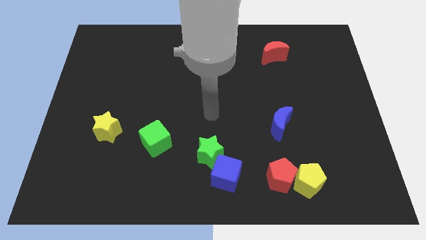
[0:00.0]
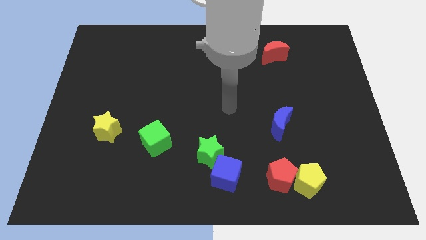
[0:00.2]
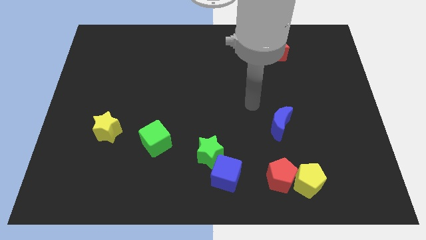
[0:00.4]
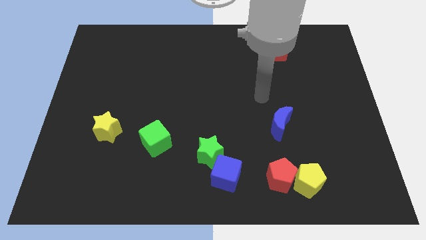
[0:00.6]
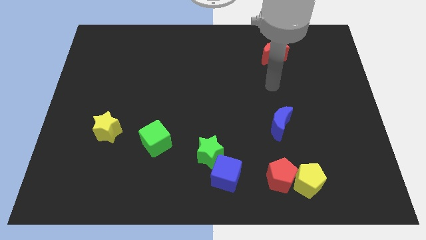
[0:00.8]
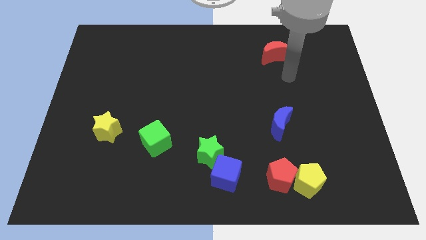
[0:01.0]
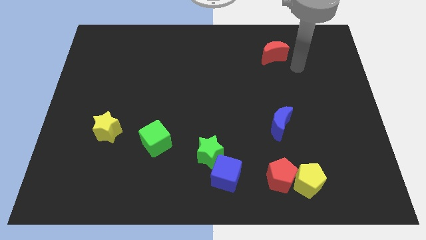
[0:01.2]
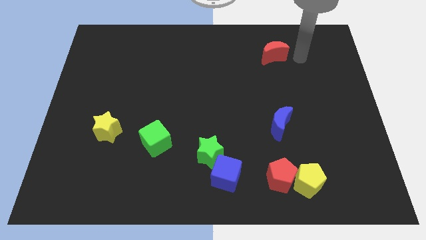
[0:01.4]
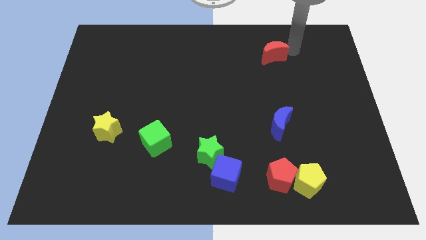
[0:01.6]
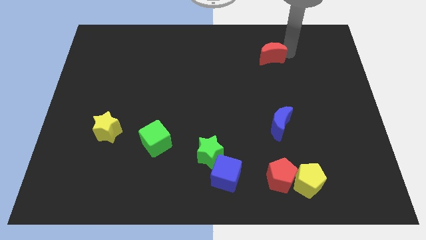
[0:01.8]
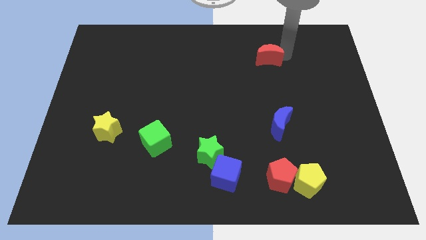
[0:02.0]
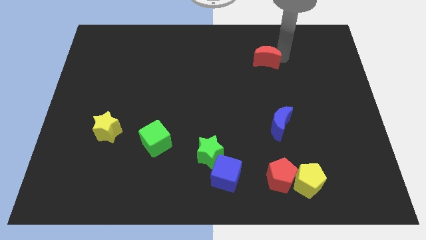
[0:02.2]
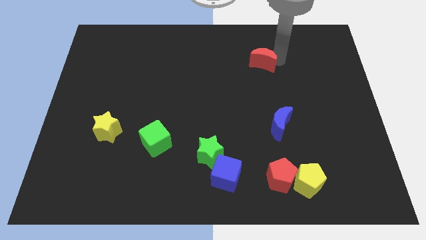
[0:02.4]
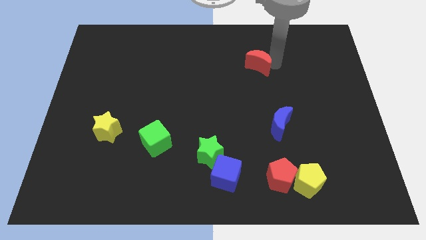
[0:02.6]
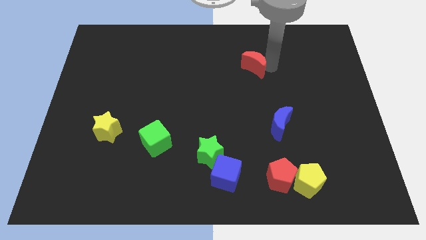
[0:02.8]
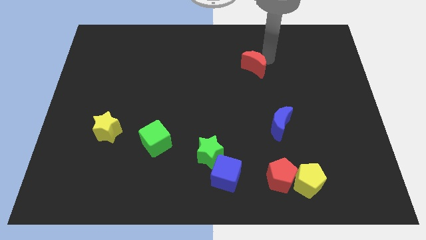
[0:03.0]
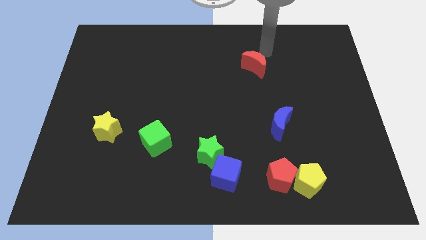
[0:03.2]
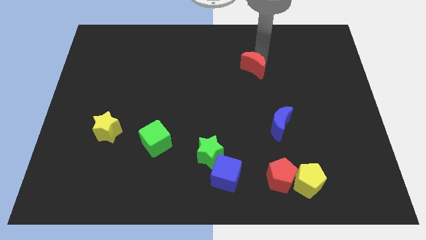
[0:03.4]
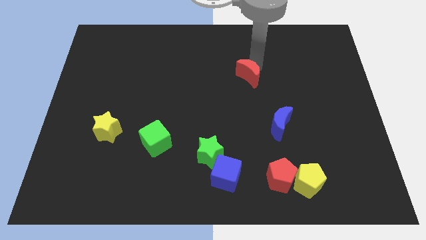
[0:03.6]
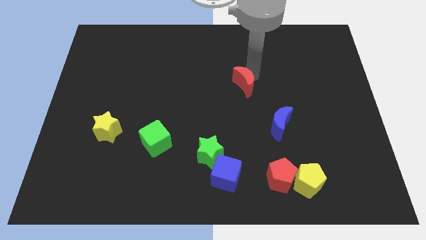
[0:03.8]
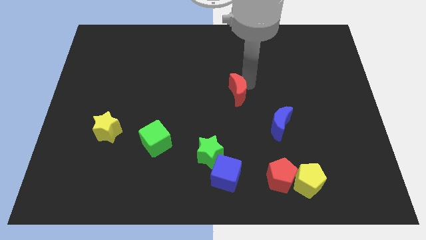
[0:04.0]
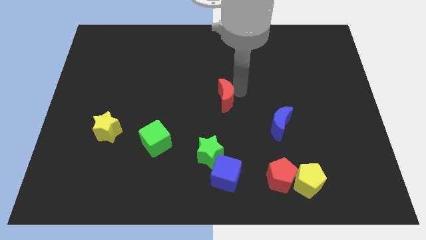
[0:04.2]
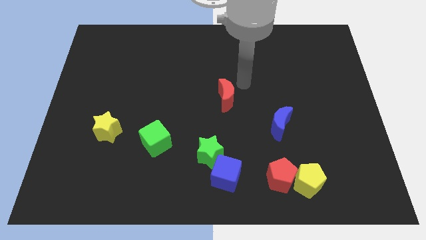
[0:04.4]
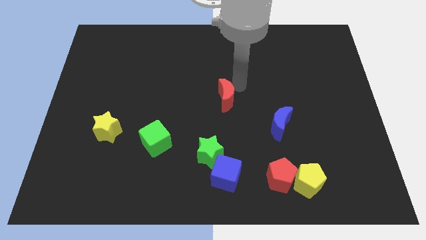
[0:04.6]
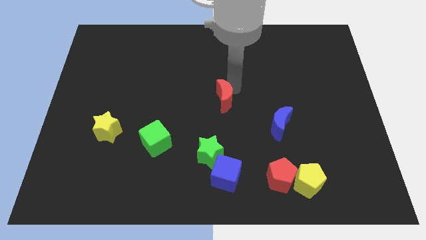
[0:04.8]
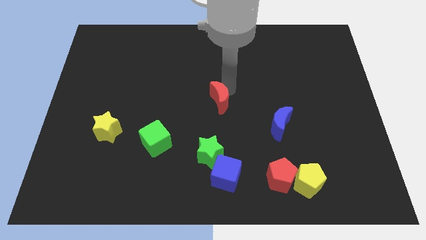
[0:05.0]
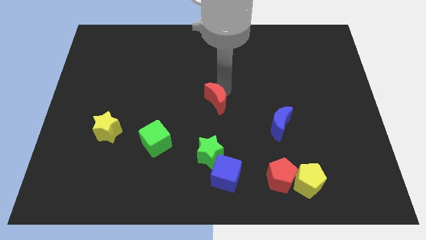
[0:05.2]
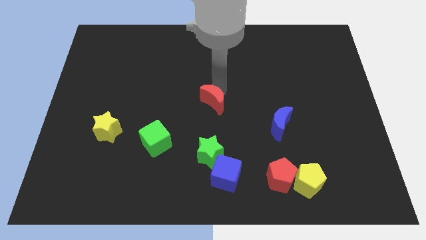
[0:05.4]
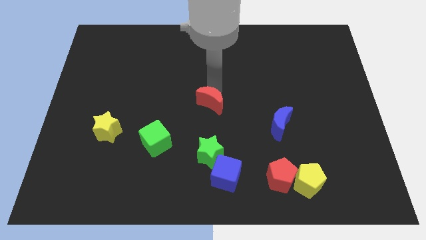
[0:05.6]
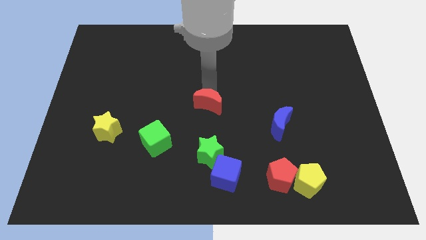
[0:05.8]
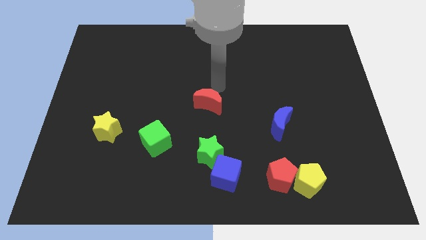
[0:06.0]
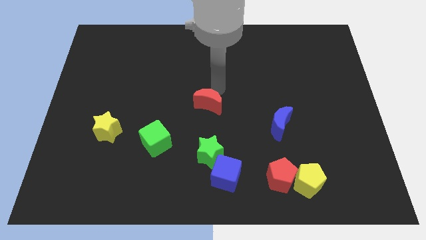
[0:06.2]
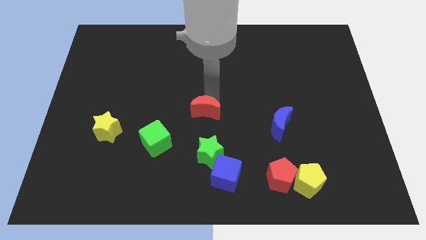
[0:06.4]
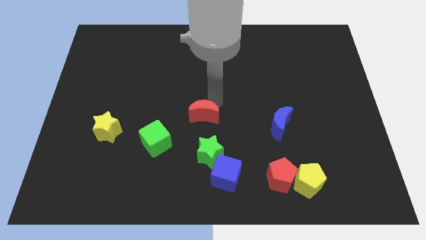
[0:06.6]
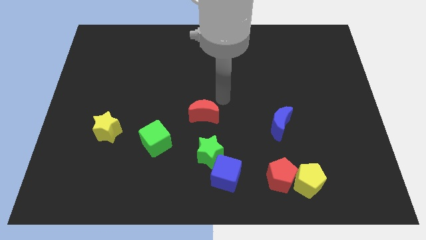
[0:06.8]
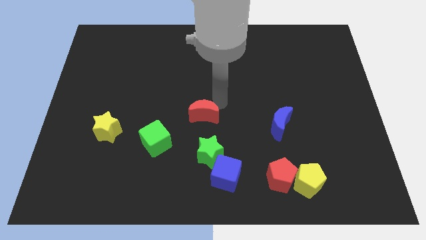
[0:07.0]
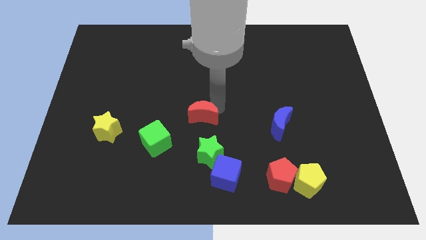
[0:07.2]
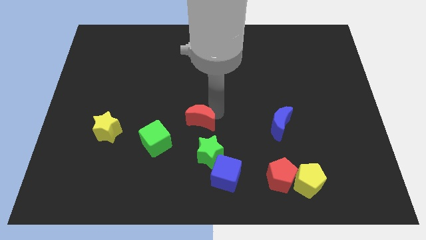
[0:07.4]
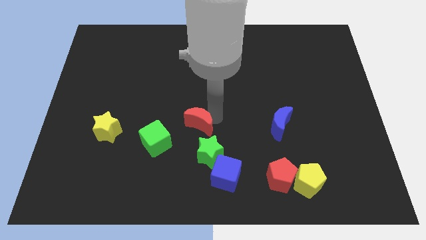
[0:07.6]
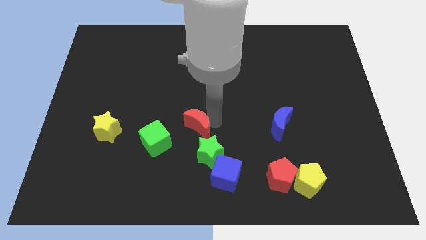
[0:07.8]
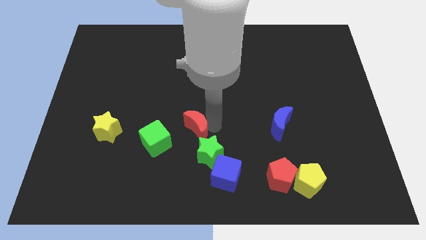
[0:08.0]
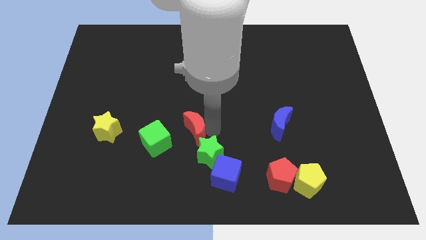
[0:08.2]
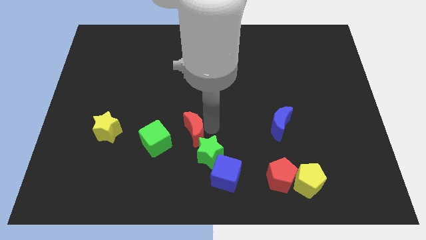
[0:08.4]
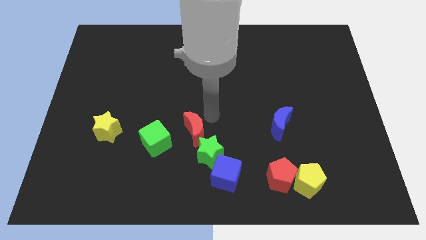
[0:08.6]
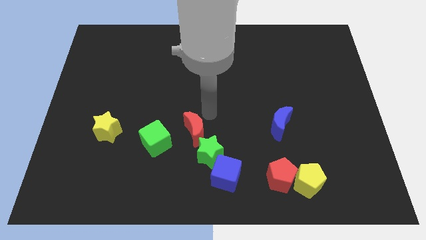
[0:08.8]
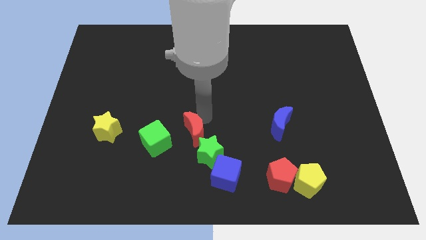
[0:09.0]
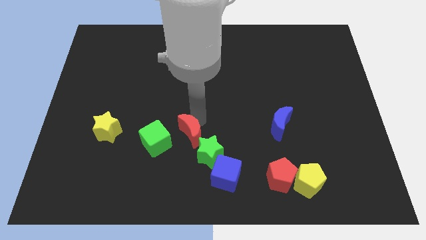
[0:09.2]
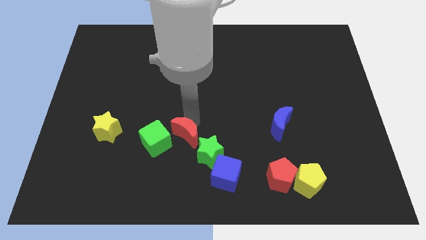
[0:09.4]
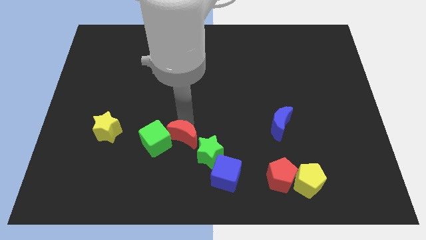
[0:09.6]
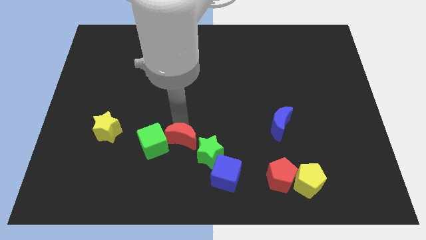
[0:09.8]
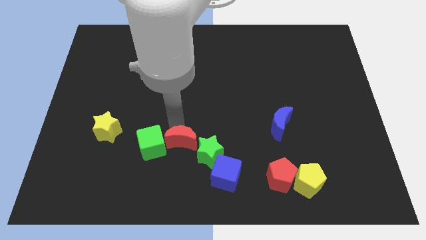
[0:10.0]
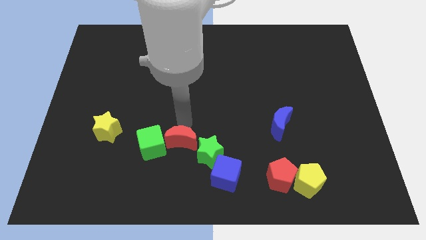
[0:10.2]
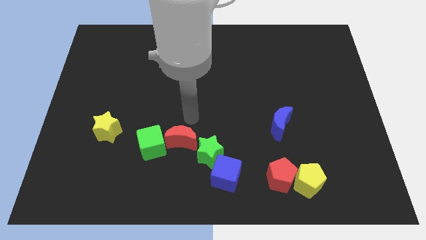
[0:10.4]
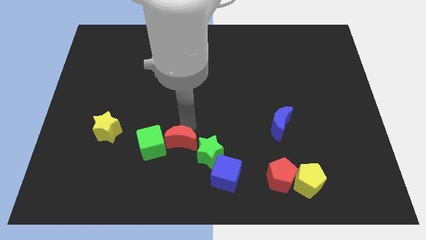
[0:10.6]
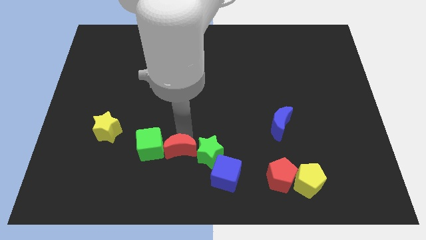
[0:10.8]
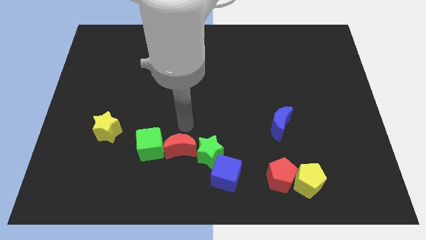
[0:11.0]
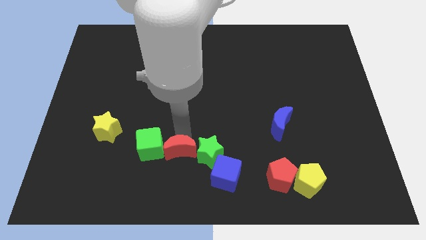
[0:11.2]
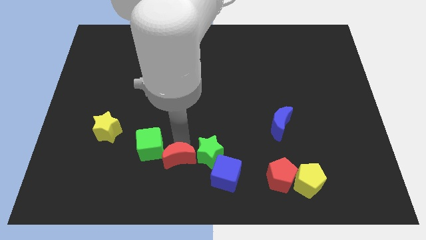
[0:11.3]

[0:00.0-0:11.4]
slide the red moon to the left of the blue cube
